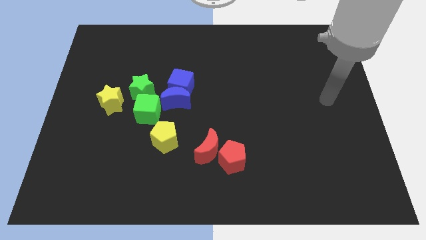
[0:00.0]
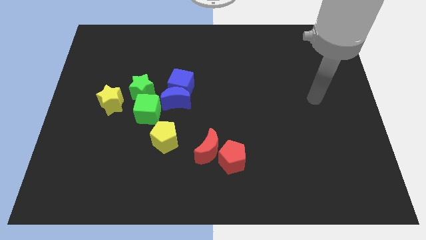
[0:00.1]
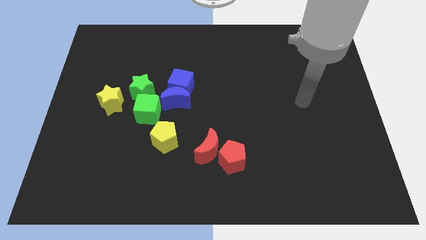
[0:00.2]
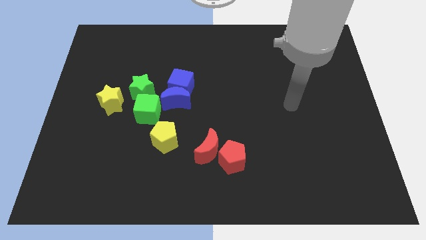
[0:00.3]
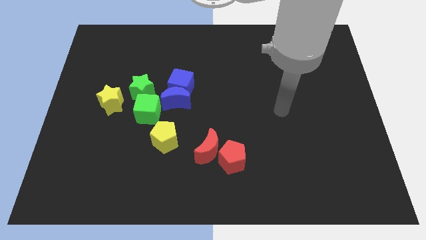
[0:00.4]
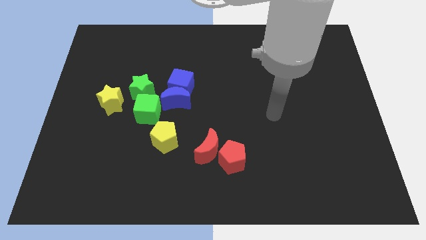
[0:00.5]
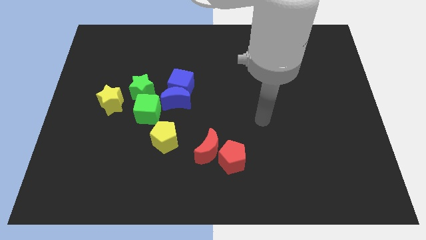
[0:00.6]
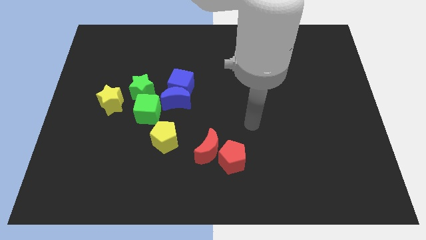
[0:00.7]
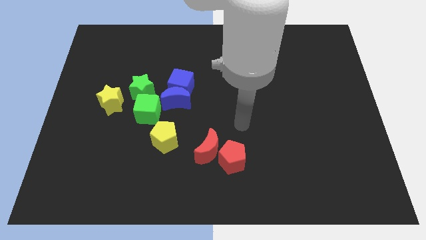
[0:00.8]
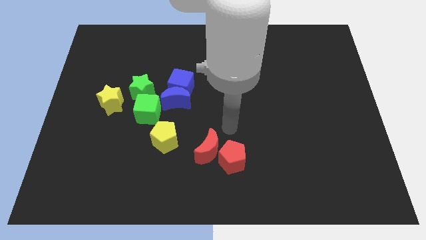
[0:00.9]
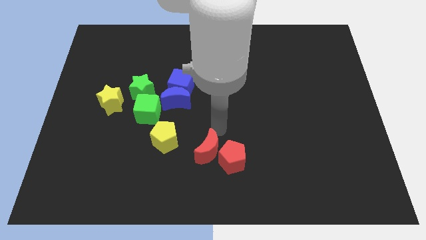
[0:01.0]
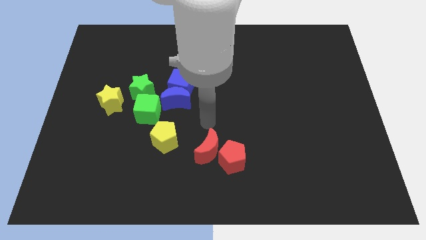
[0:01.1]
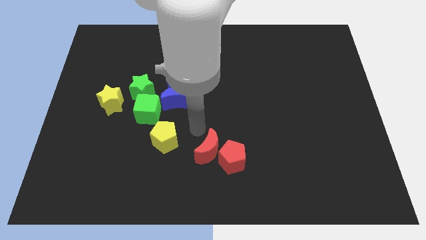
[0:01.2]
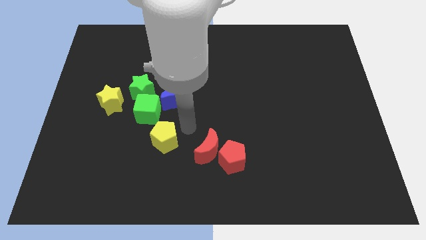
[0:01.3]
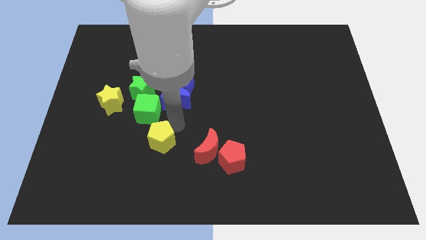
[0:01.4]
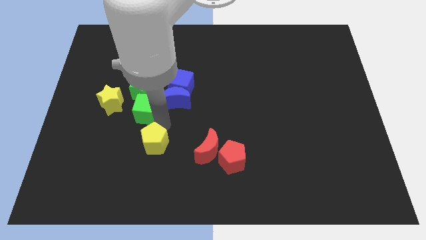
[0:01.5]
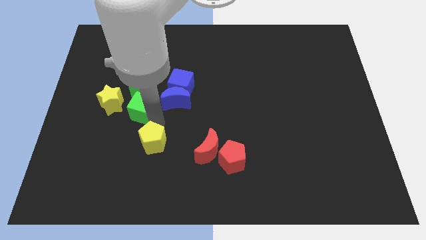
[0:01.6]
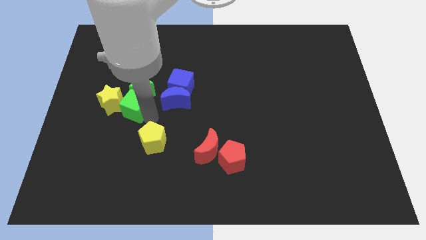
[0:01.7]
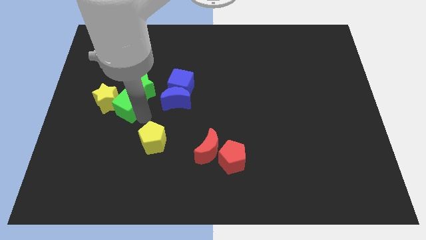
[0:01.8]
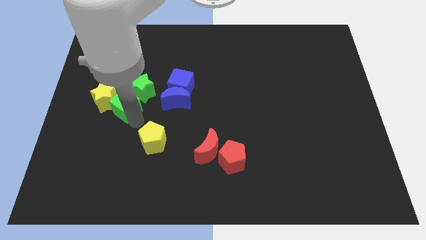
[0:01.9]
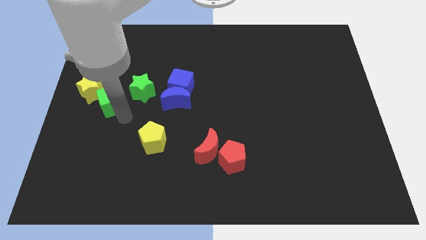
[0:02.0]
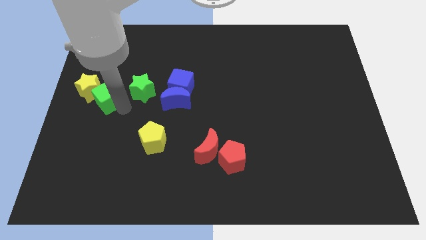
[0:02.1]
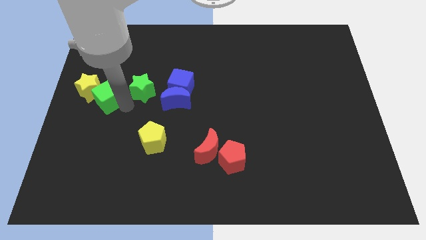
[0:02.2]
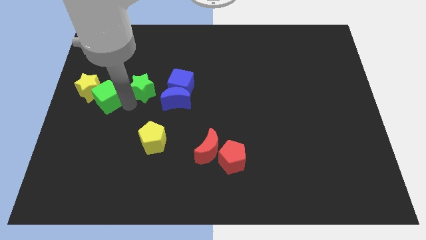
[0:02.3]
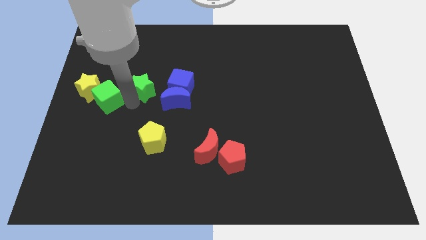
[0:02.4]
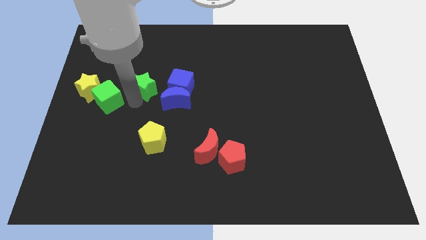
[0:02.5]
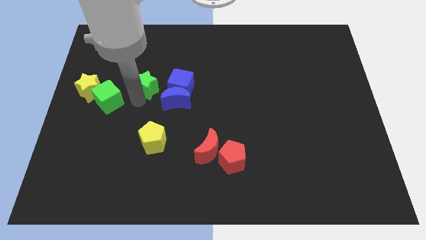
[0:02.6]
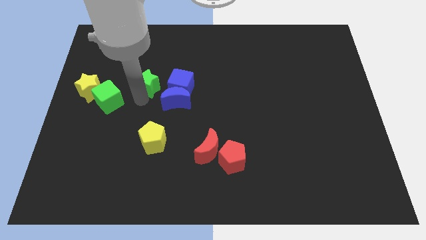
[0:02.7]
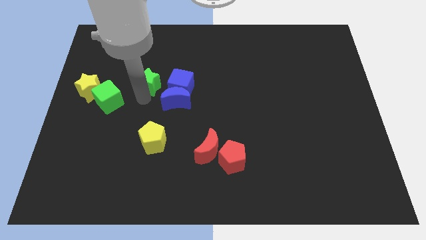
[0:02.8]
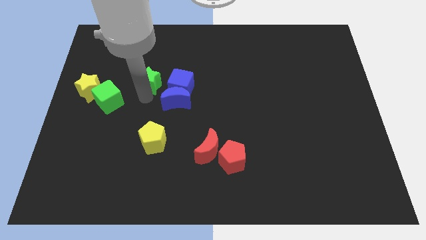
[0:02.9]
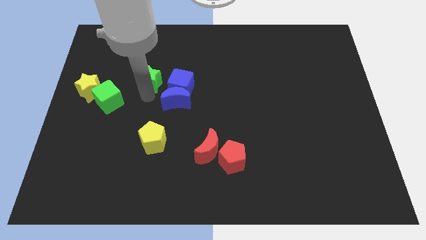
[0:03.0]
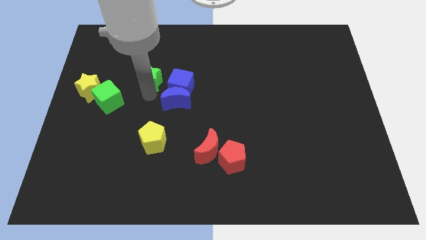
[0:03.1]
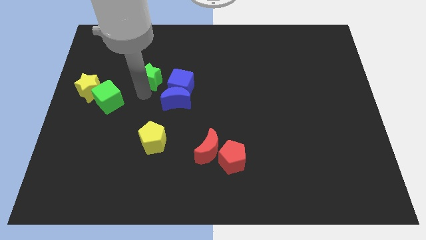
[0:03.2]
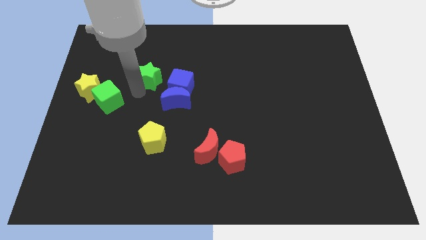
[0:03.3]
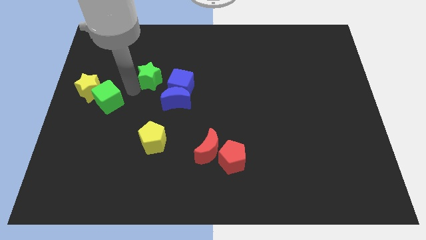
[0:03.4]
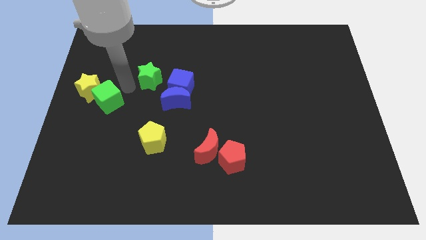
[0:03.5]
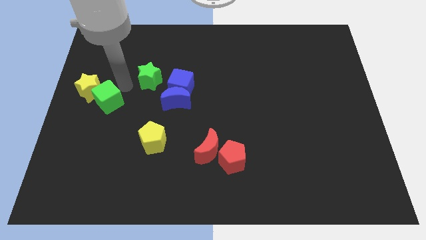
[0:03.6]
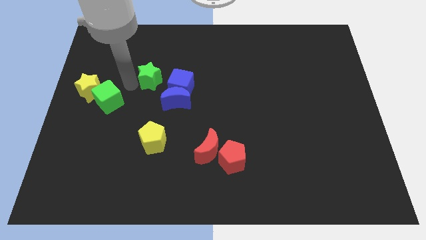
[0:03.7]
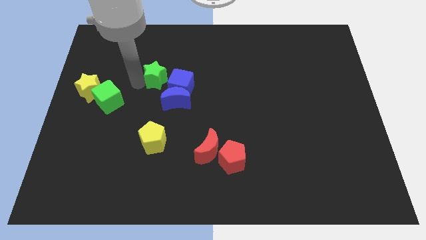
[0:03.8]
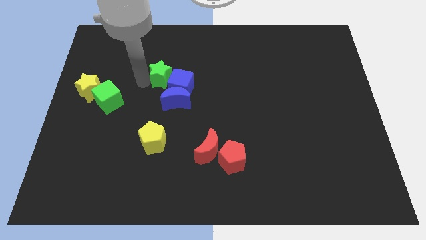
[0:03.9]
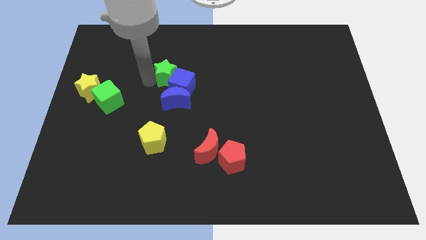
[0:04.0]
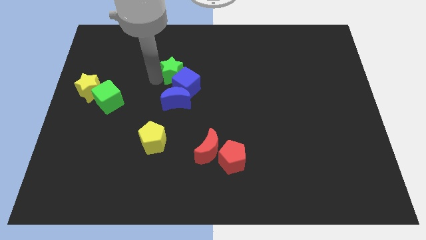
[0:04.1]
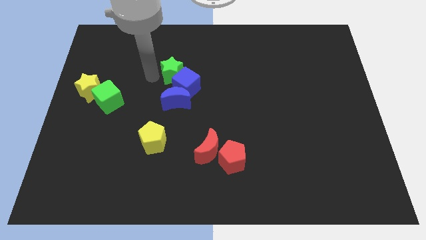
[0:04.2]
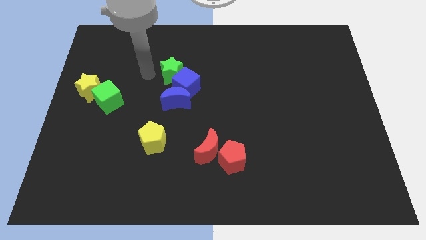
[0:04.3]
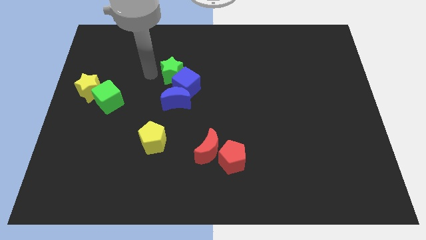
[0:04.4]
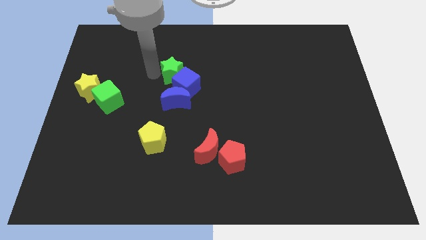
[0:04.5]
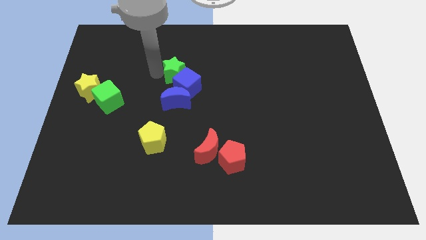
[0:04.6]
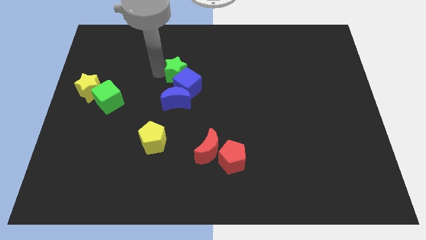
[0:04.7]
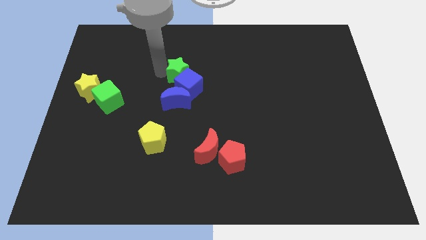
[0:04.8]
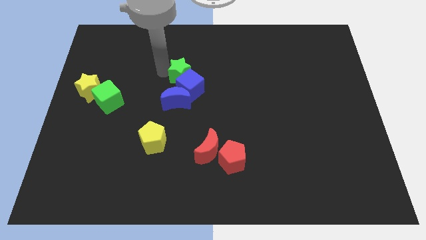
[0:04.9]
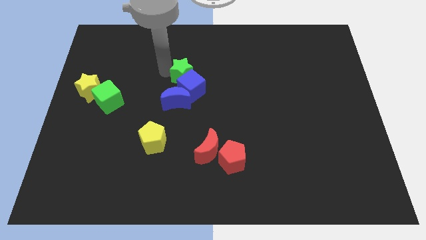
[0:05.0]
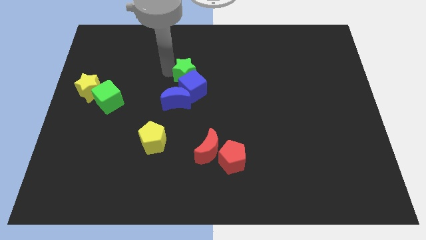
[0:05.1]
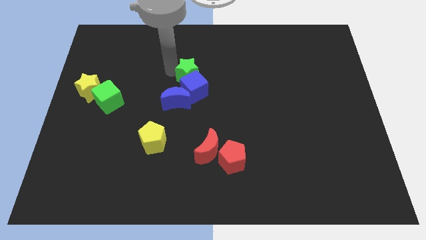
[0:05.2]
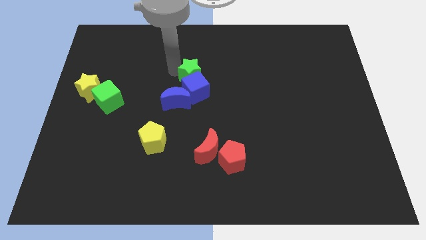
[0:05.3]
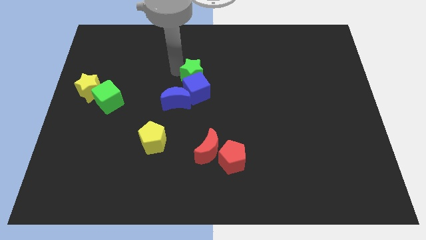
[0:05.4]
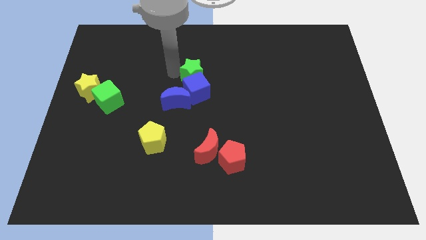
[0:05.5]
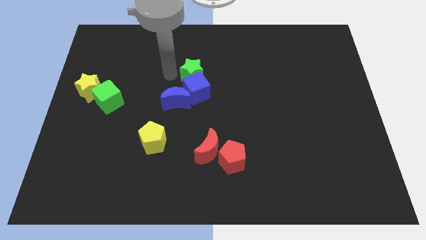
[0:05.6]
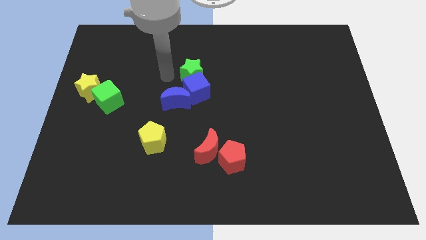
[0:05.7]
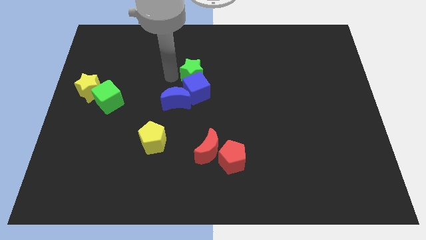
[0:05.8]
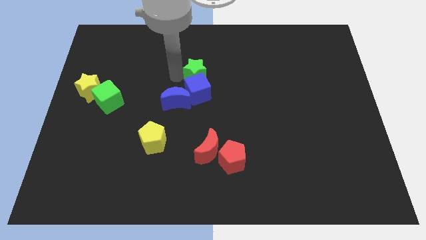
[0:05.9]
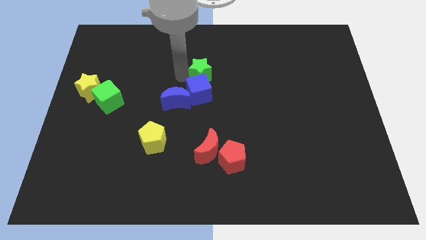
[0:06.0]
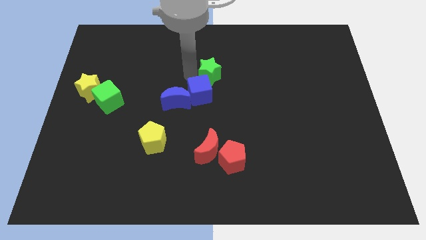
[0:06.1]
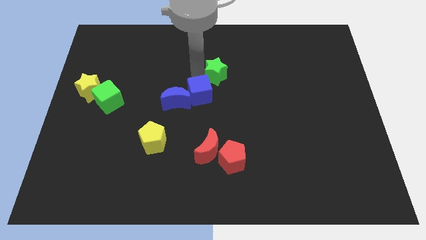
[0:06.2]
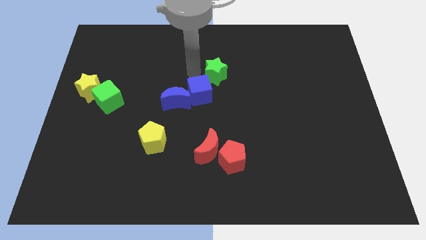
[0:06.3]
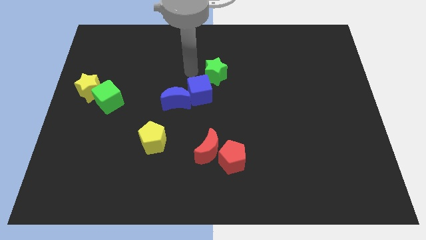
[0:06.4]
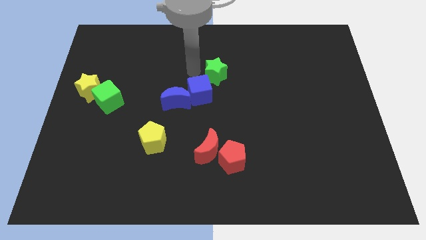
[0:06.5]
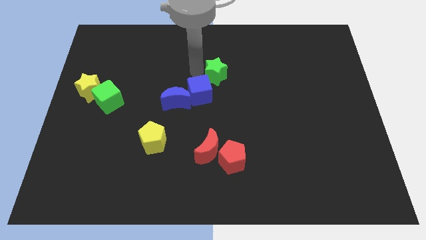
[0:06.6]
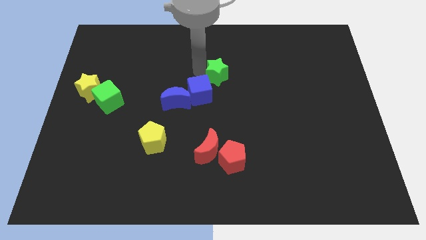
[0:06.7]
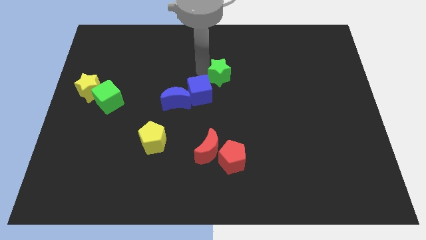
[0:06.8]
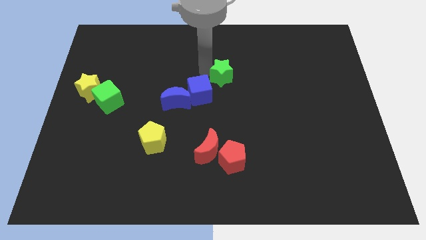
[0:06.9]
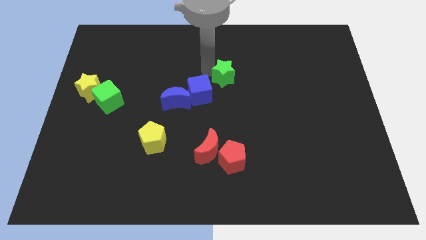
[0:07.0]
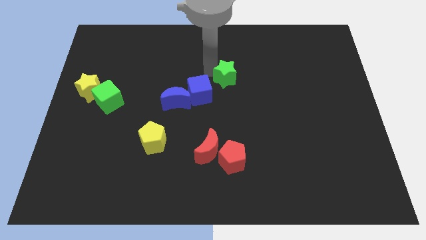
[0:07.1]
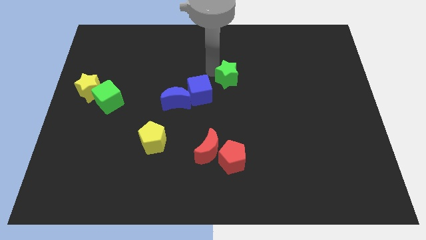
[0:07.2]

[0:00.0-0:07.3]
move the green star right

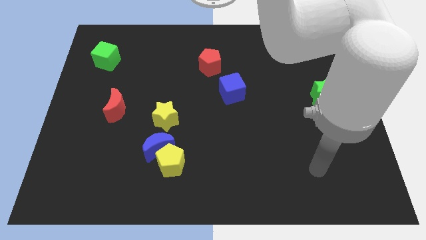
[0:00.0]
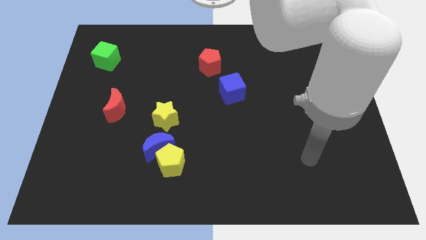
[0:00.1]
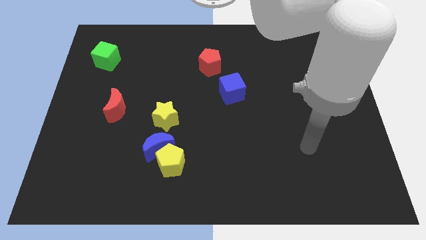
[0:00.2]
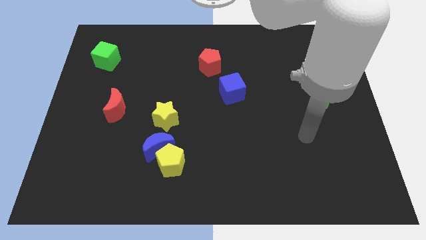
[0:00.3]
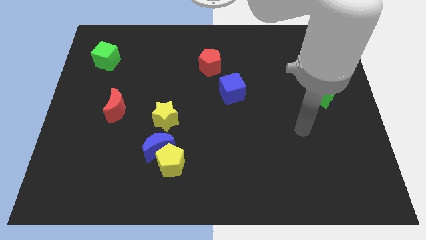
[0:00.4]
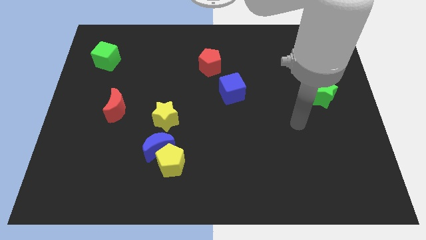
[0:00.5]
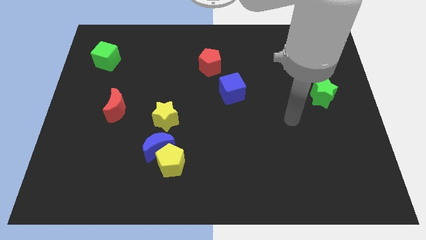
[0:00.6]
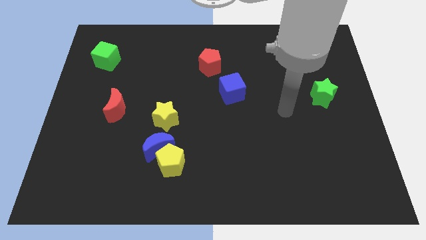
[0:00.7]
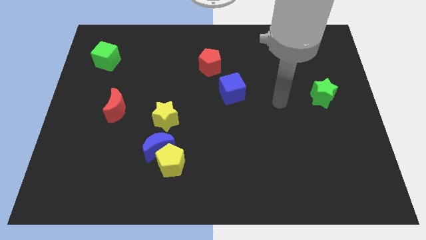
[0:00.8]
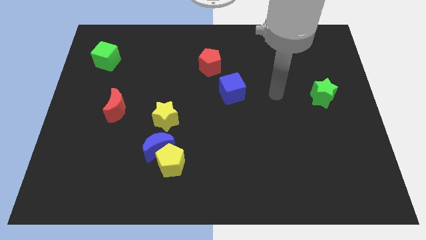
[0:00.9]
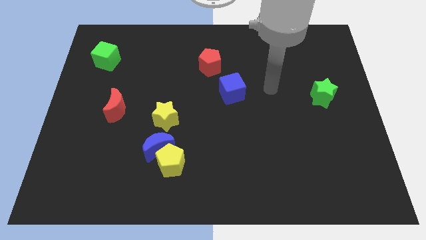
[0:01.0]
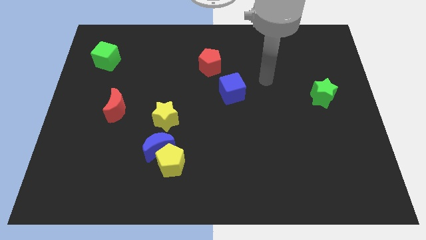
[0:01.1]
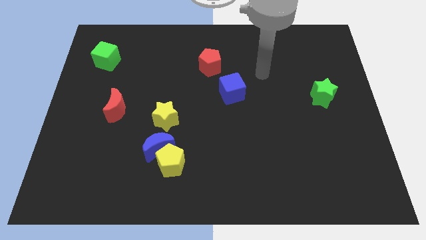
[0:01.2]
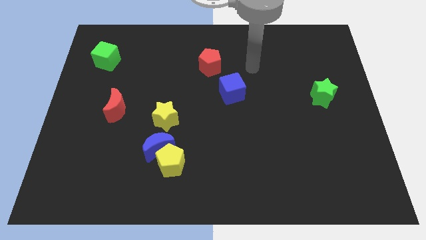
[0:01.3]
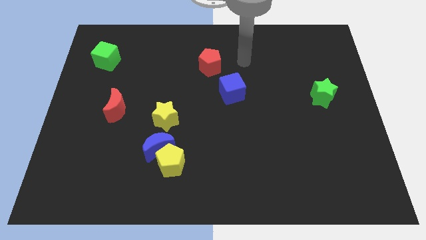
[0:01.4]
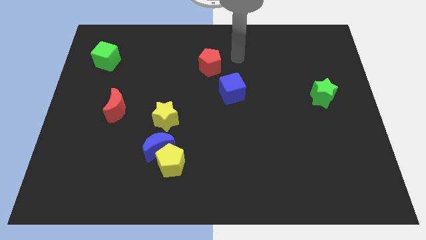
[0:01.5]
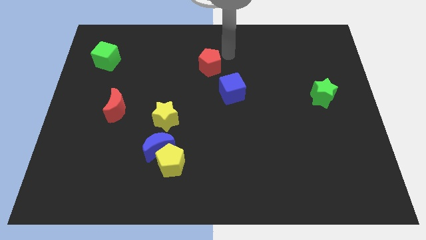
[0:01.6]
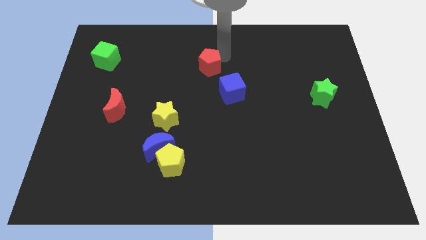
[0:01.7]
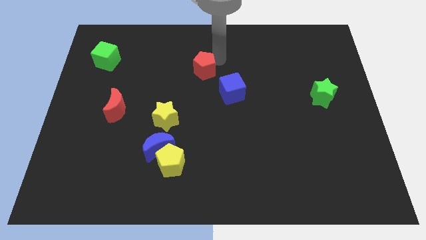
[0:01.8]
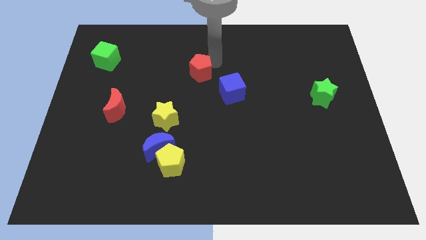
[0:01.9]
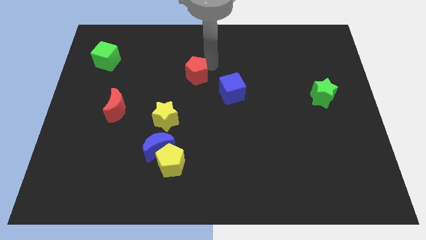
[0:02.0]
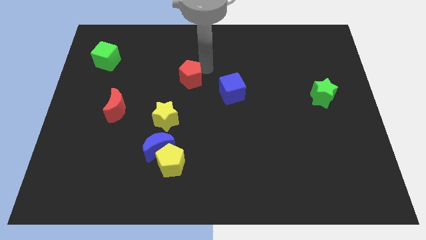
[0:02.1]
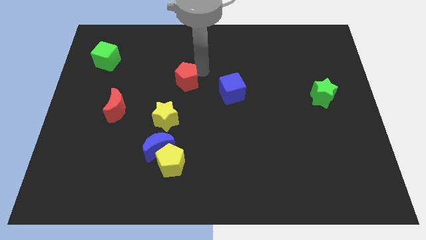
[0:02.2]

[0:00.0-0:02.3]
slightly move the red pentagon down and then left
